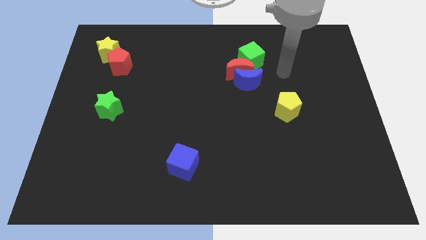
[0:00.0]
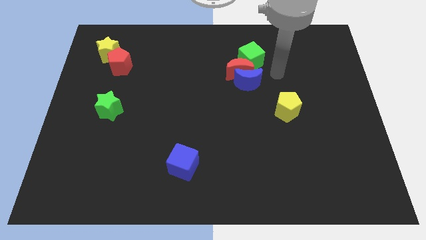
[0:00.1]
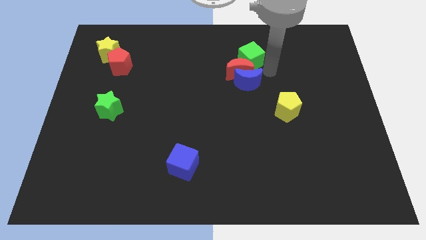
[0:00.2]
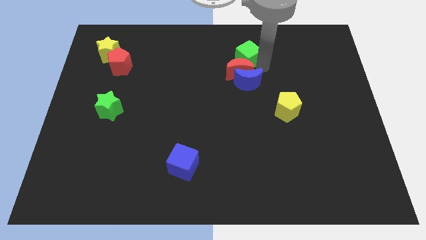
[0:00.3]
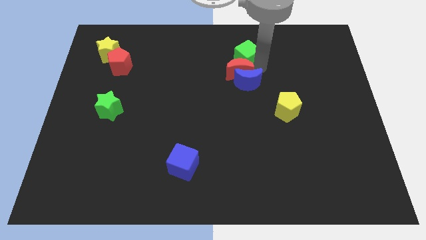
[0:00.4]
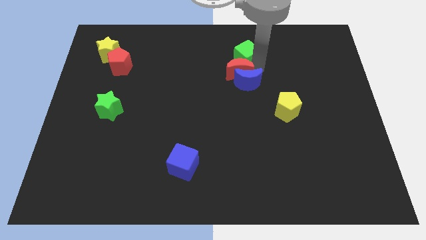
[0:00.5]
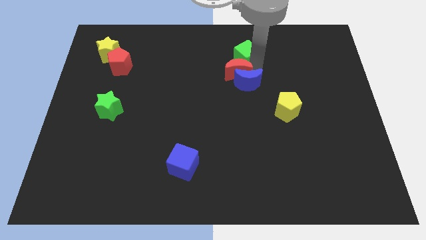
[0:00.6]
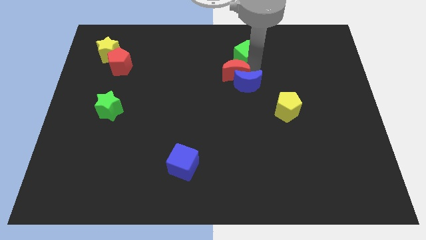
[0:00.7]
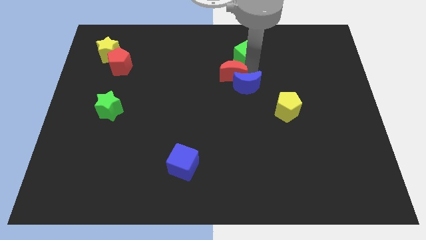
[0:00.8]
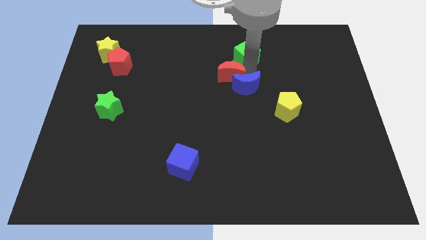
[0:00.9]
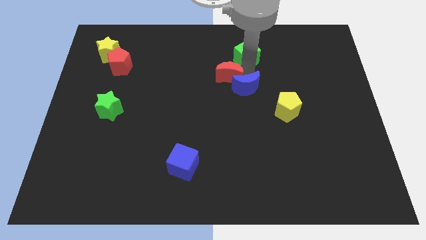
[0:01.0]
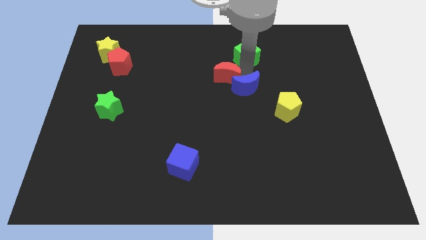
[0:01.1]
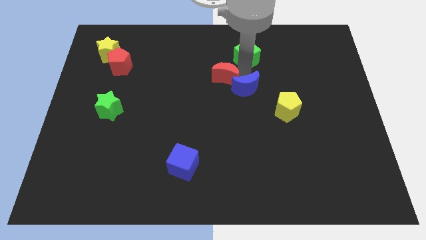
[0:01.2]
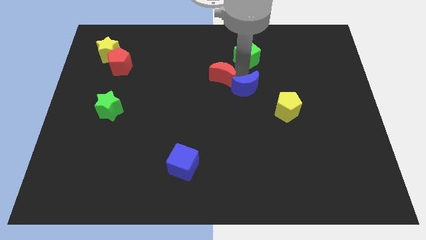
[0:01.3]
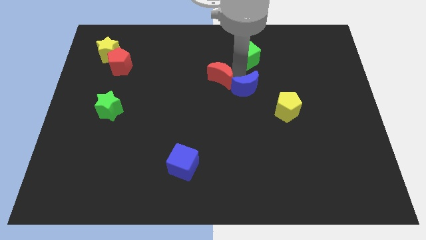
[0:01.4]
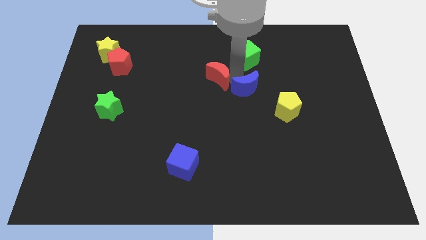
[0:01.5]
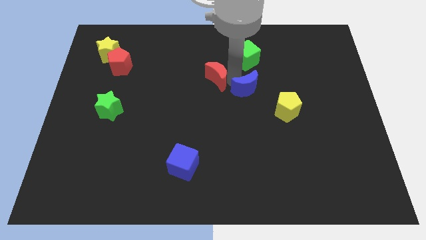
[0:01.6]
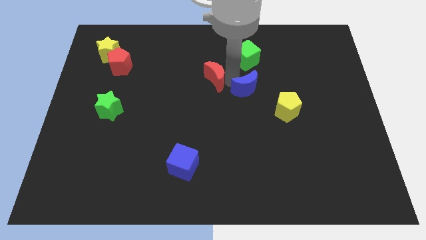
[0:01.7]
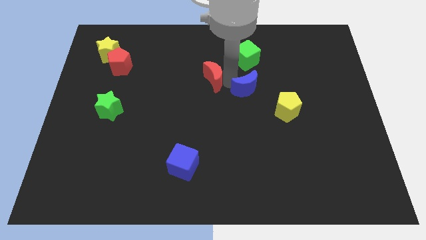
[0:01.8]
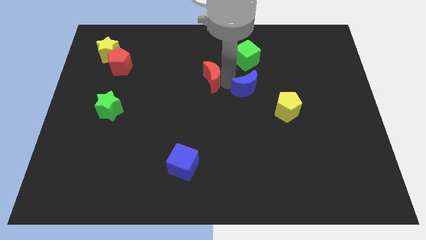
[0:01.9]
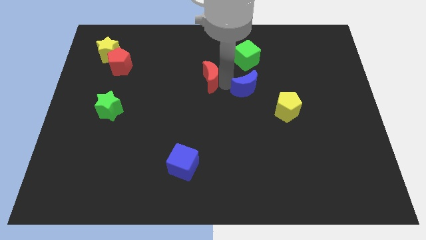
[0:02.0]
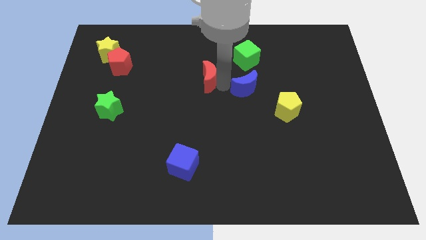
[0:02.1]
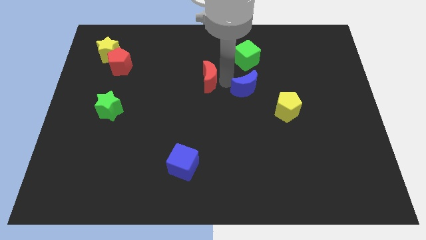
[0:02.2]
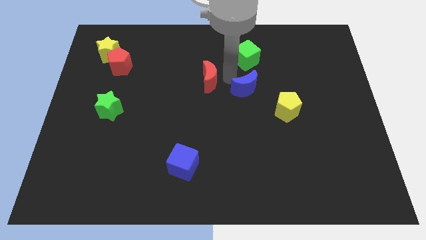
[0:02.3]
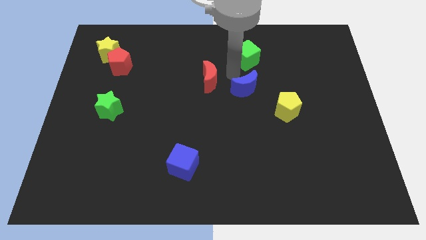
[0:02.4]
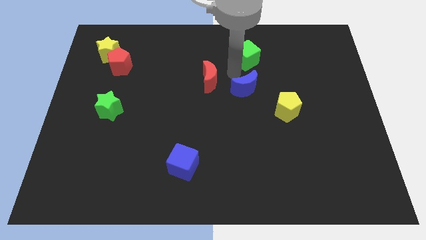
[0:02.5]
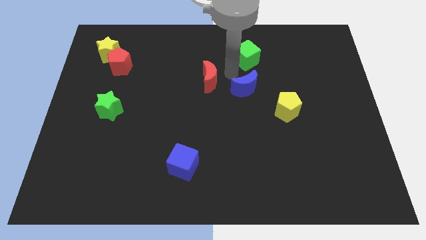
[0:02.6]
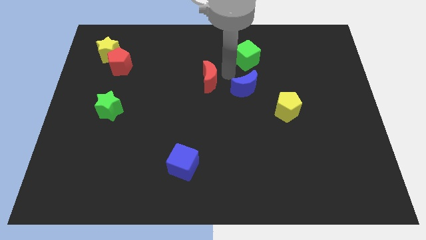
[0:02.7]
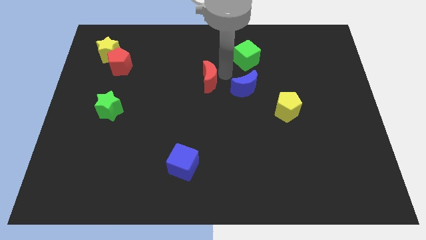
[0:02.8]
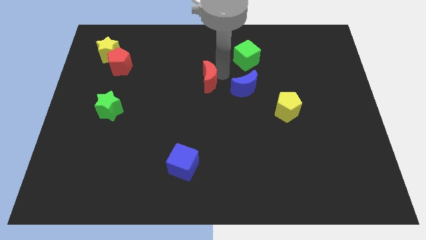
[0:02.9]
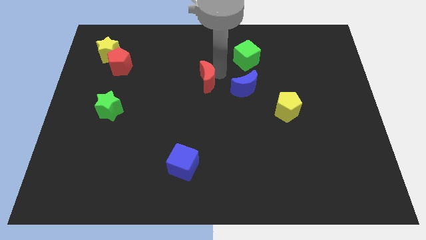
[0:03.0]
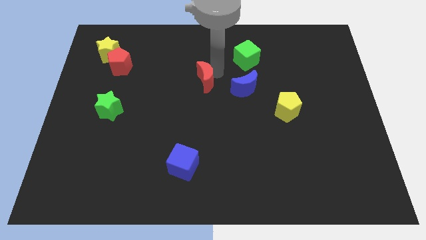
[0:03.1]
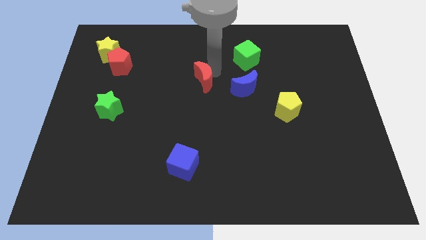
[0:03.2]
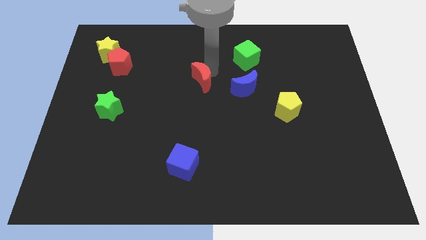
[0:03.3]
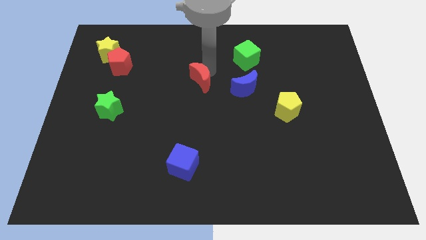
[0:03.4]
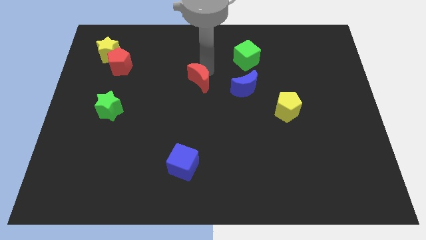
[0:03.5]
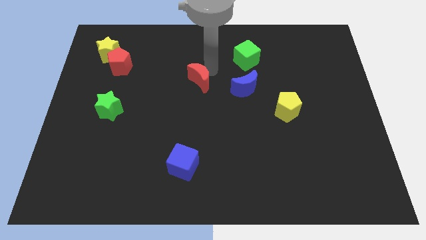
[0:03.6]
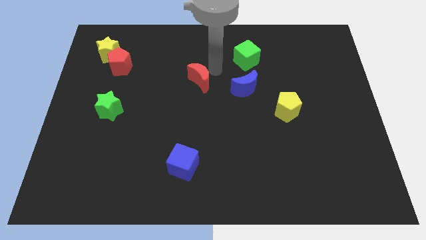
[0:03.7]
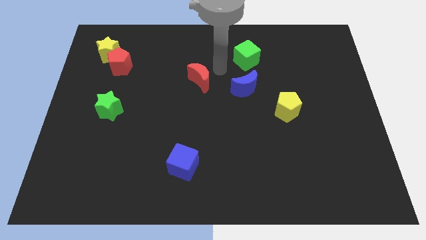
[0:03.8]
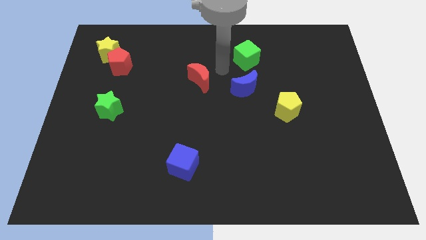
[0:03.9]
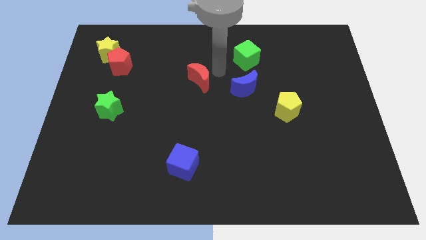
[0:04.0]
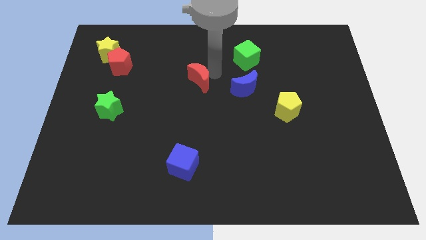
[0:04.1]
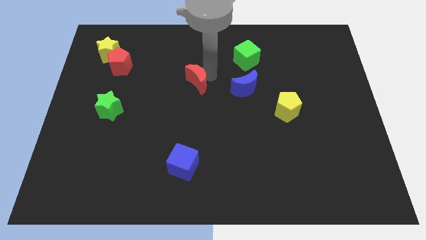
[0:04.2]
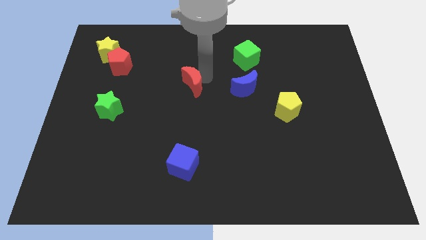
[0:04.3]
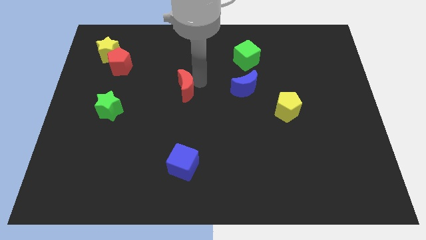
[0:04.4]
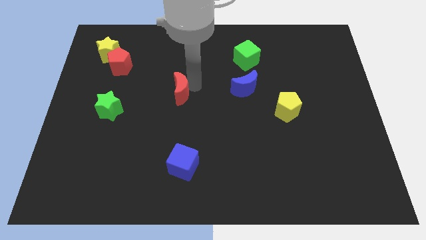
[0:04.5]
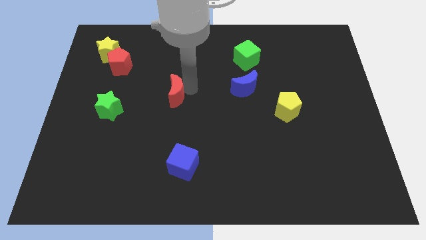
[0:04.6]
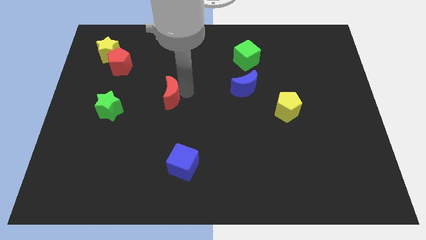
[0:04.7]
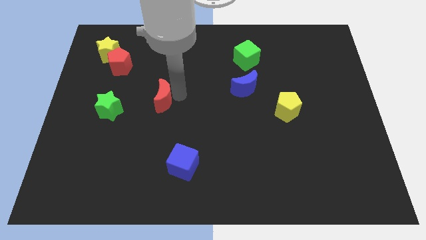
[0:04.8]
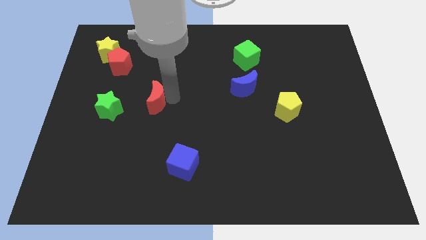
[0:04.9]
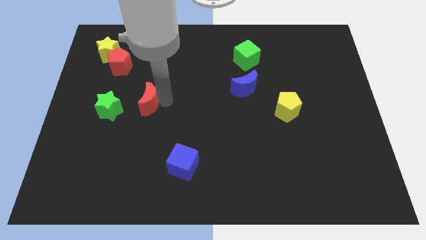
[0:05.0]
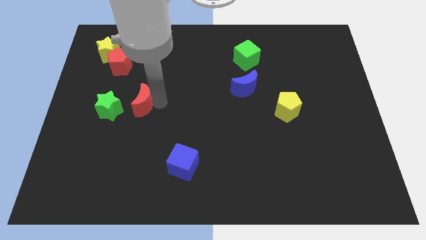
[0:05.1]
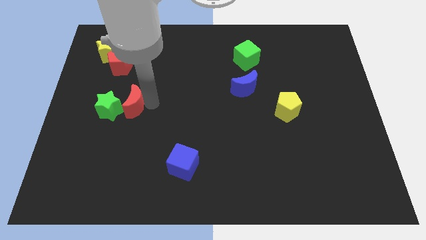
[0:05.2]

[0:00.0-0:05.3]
move the red moon to the green star

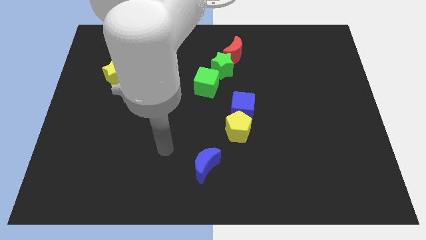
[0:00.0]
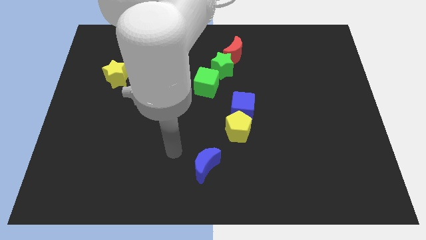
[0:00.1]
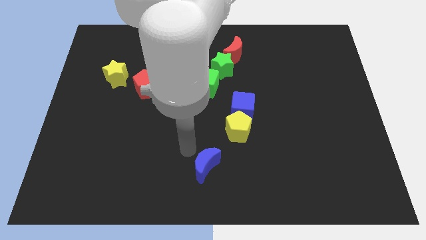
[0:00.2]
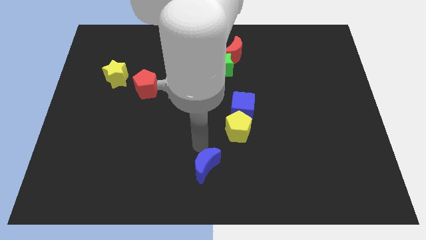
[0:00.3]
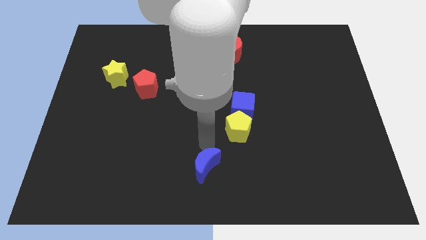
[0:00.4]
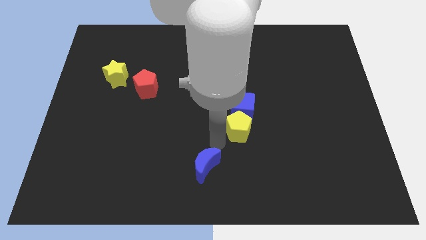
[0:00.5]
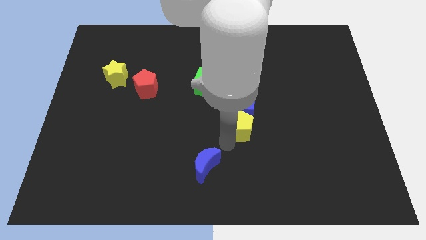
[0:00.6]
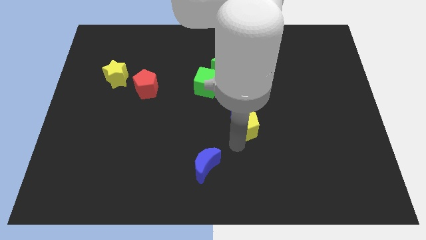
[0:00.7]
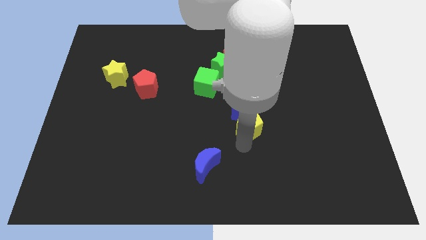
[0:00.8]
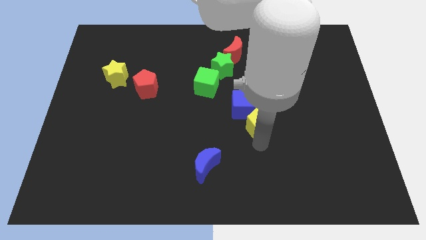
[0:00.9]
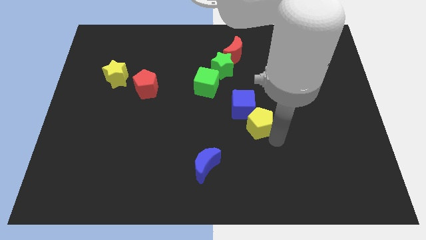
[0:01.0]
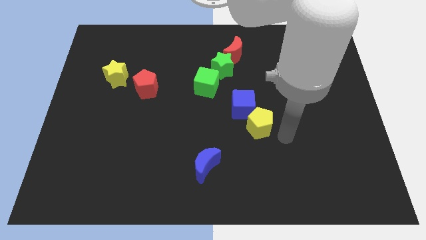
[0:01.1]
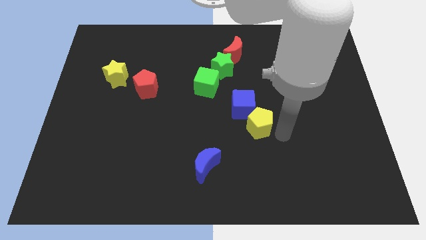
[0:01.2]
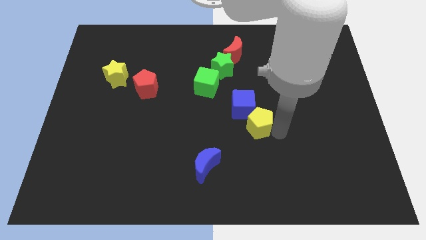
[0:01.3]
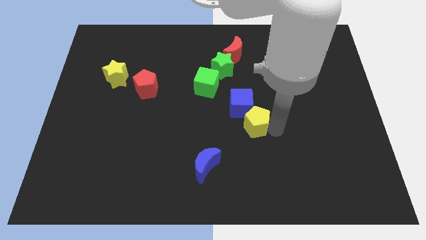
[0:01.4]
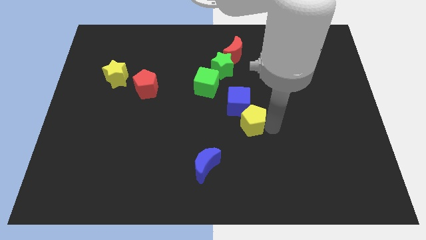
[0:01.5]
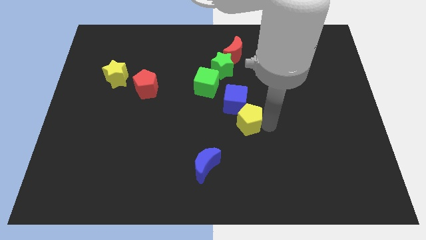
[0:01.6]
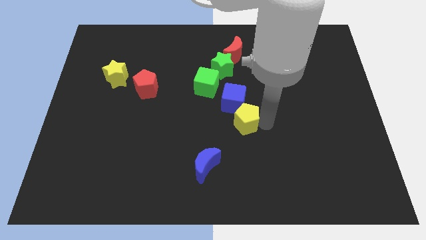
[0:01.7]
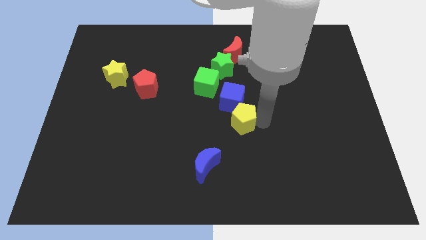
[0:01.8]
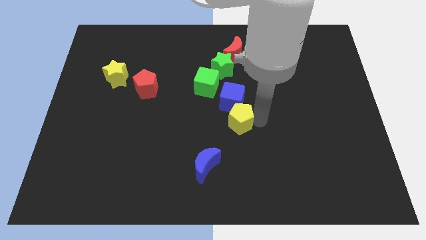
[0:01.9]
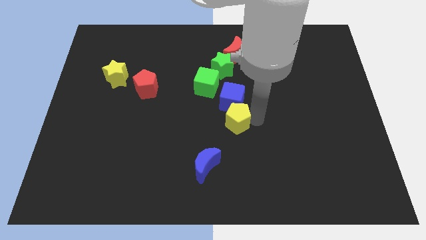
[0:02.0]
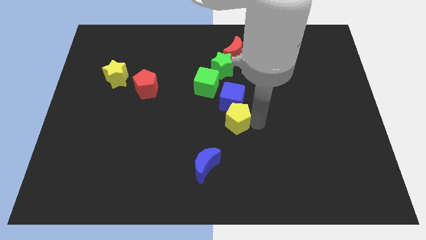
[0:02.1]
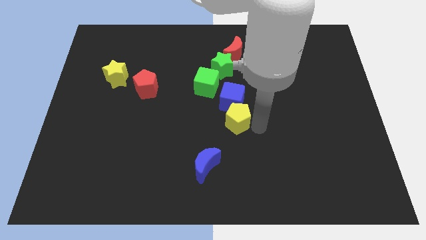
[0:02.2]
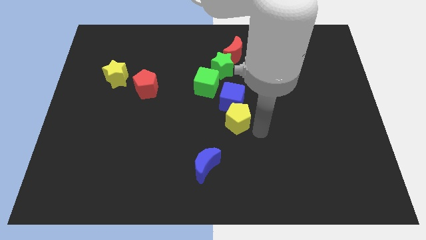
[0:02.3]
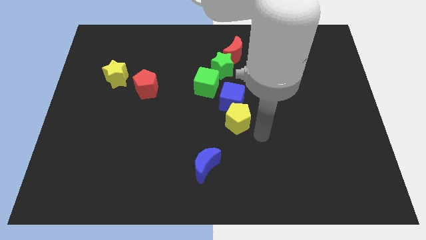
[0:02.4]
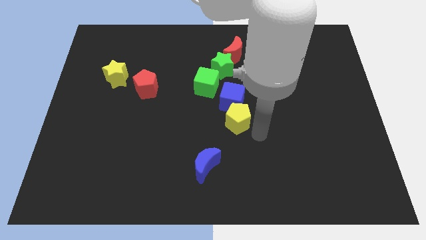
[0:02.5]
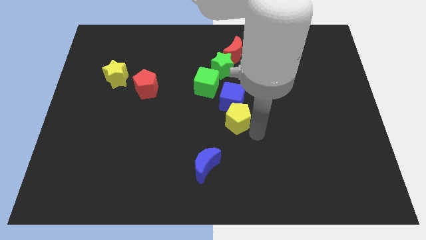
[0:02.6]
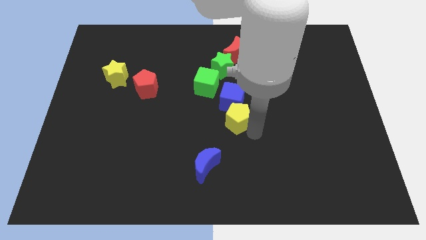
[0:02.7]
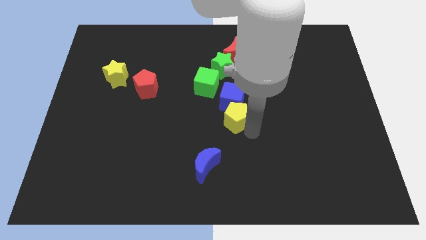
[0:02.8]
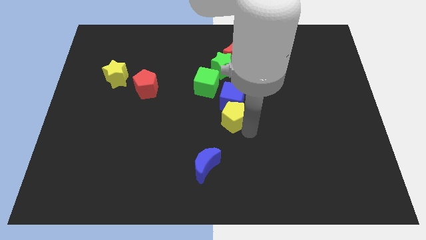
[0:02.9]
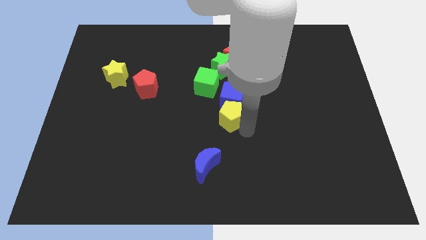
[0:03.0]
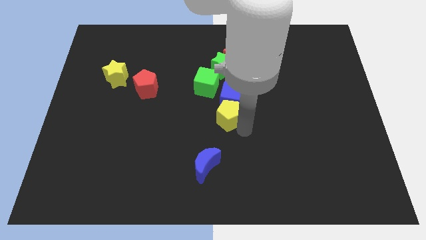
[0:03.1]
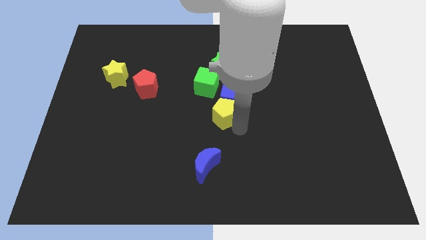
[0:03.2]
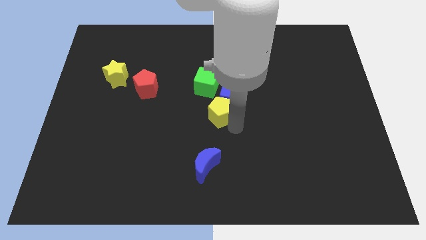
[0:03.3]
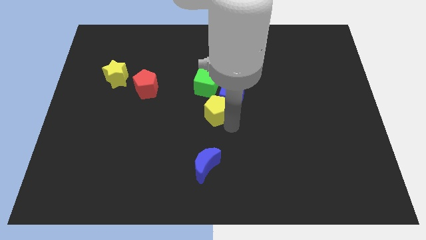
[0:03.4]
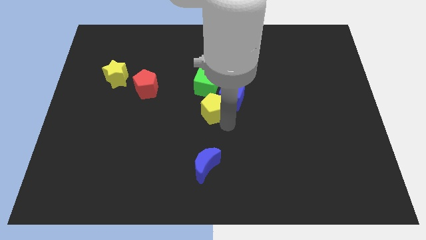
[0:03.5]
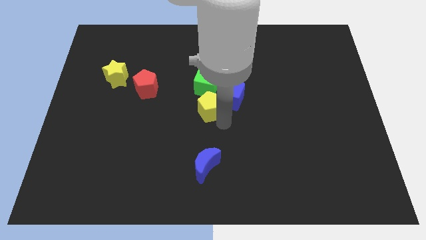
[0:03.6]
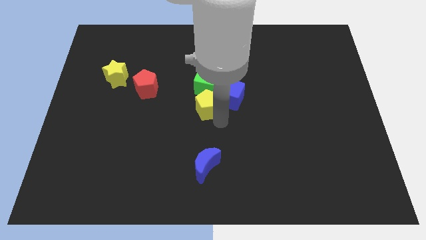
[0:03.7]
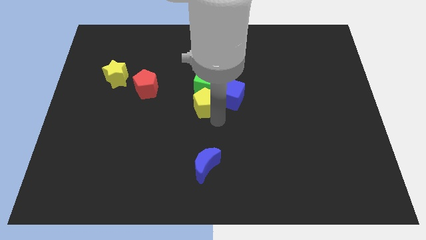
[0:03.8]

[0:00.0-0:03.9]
slide the yellow pentagon next to the green cube
